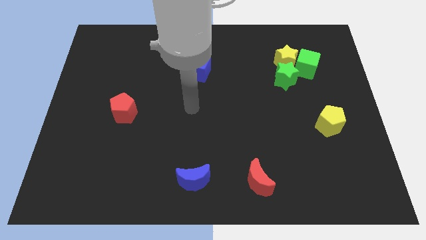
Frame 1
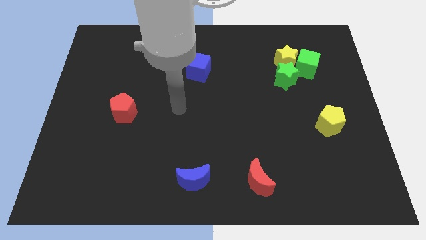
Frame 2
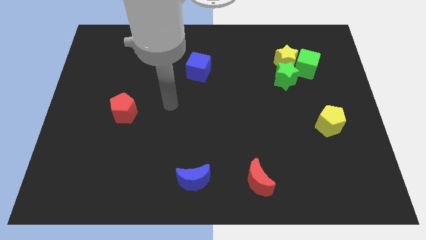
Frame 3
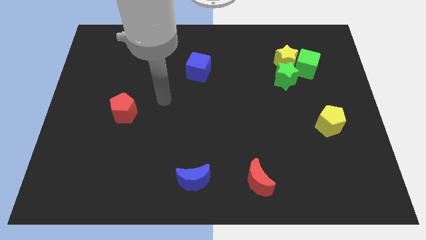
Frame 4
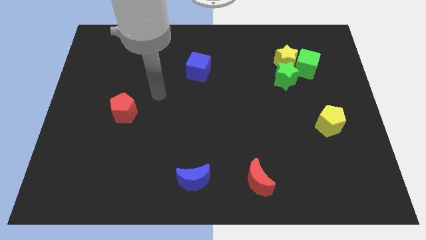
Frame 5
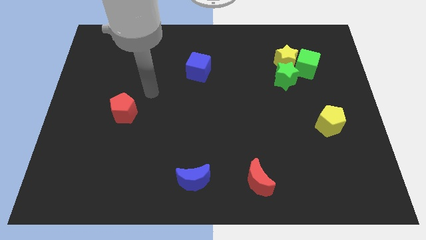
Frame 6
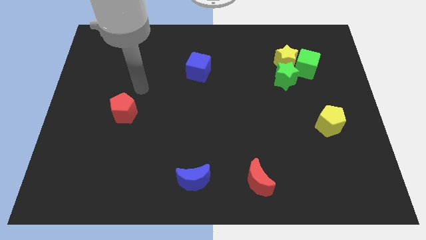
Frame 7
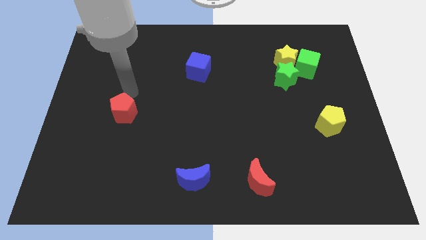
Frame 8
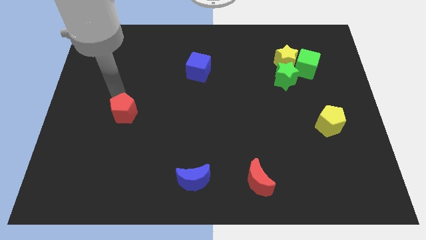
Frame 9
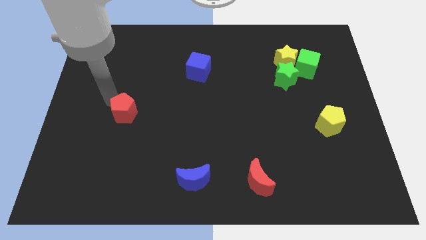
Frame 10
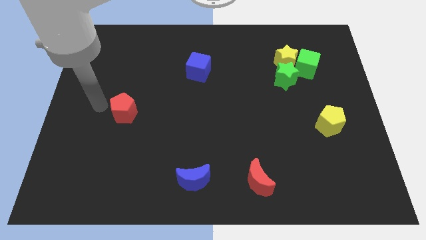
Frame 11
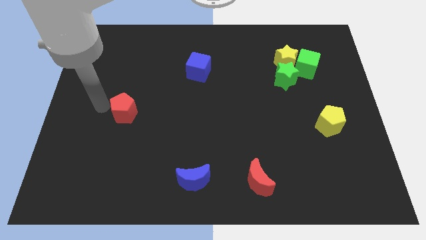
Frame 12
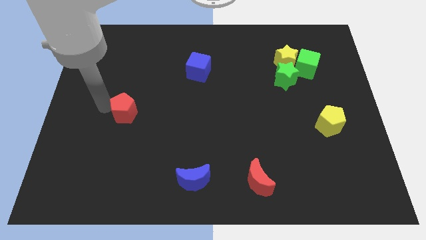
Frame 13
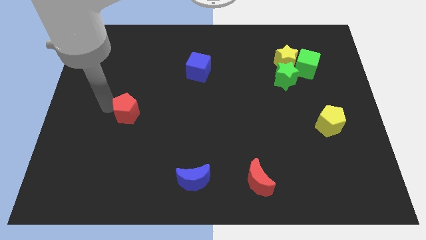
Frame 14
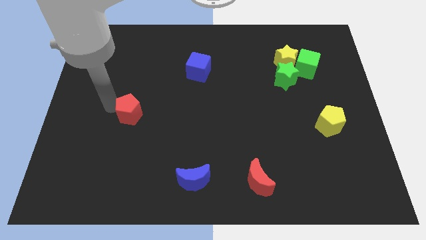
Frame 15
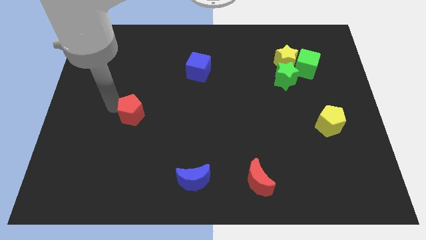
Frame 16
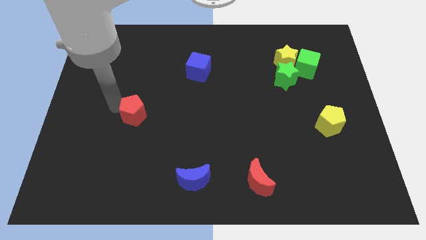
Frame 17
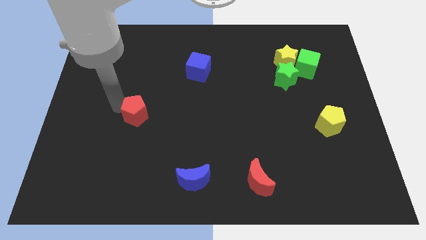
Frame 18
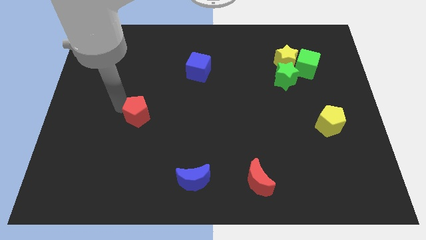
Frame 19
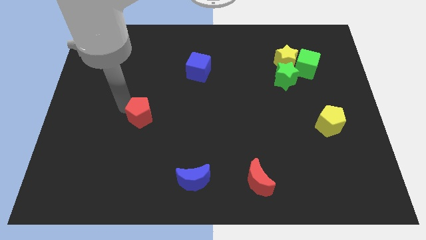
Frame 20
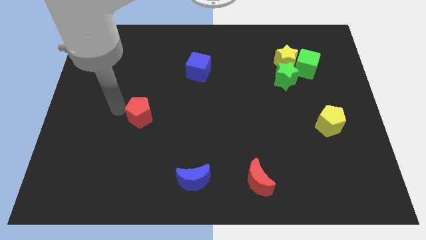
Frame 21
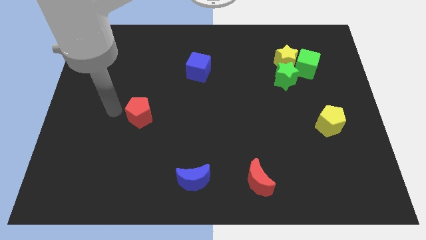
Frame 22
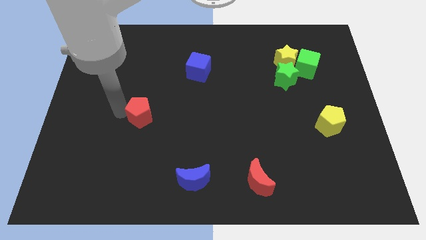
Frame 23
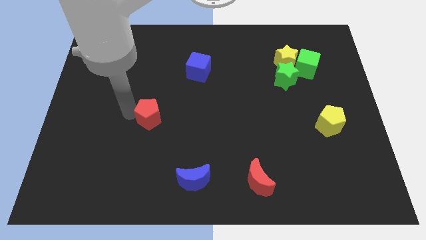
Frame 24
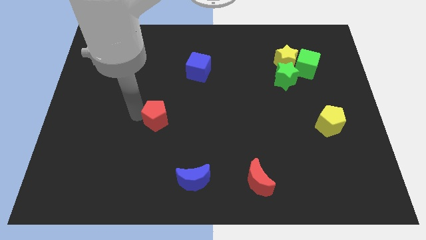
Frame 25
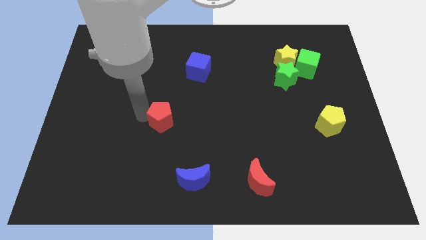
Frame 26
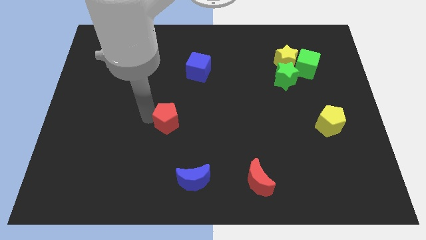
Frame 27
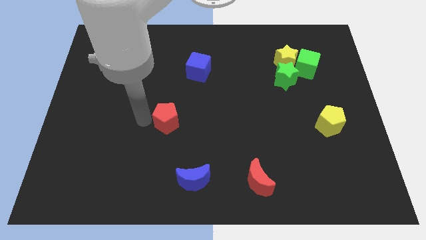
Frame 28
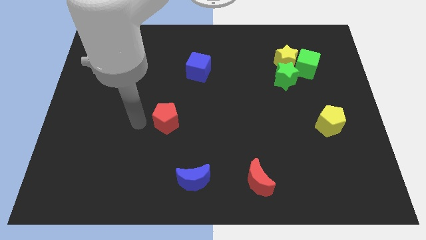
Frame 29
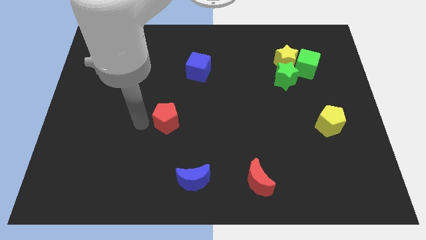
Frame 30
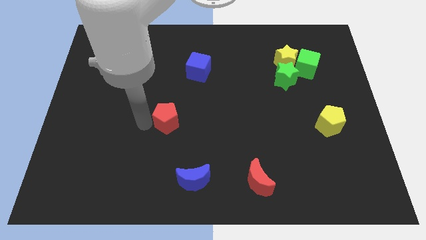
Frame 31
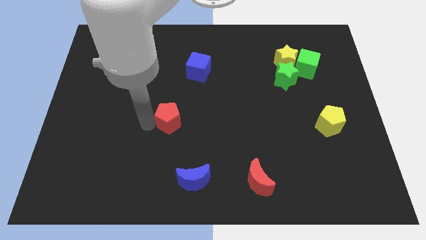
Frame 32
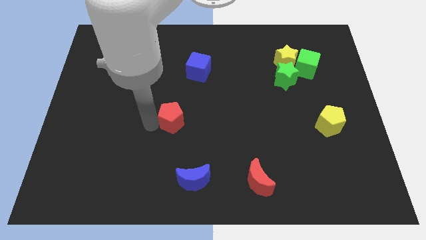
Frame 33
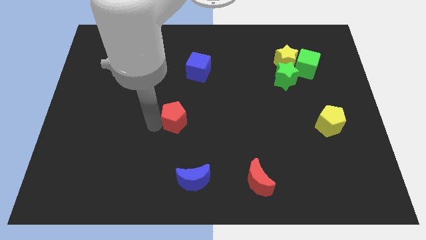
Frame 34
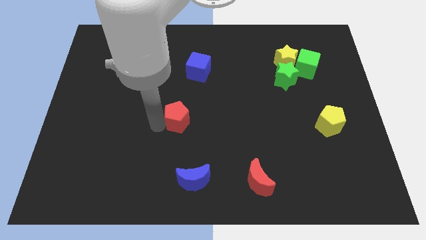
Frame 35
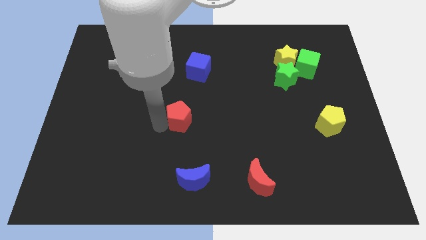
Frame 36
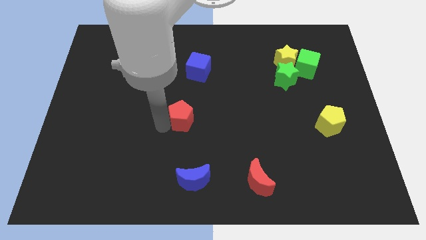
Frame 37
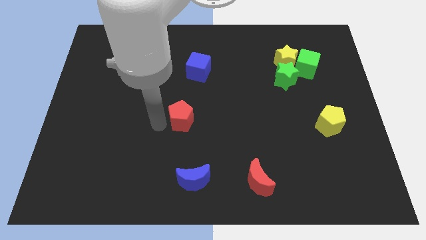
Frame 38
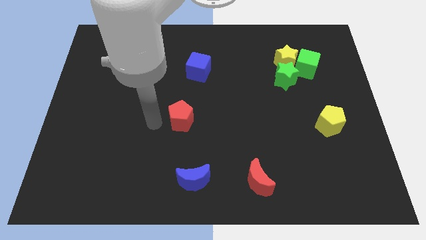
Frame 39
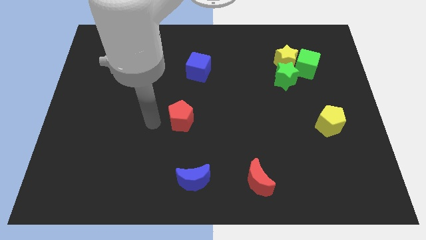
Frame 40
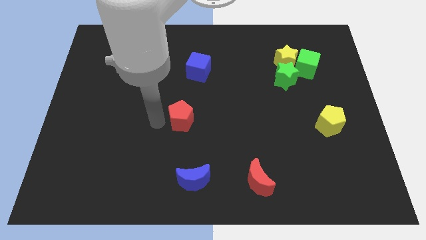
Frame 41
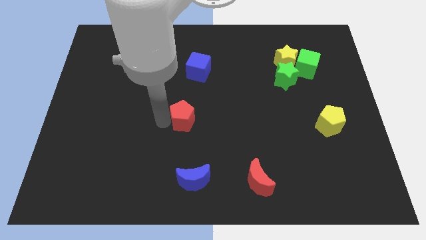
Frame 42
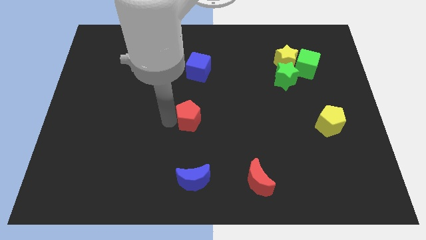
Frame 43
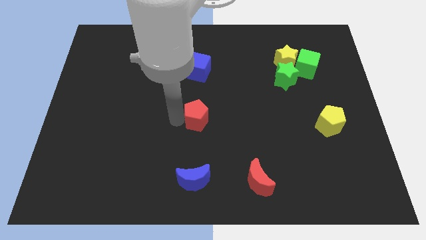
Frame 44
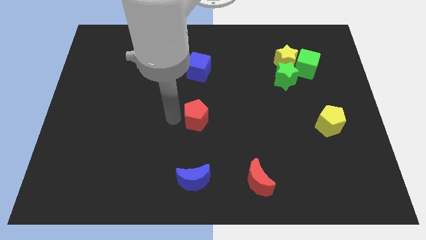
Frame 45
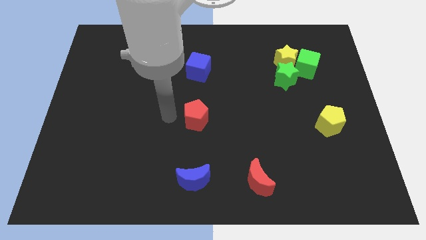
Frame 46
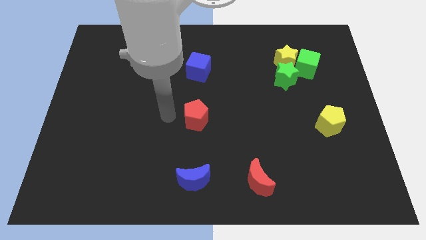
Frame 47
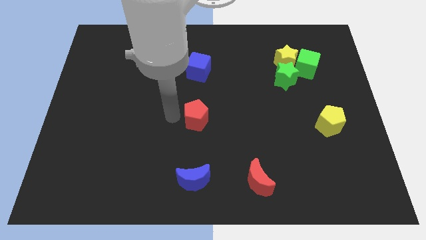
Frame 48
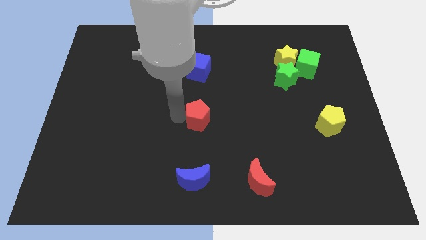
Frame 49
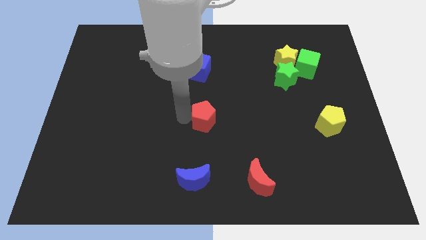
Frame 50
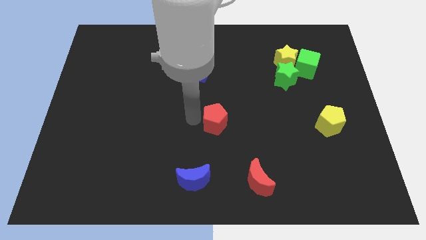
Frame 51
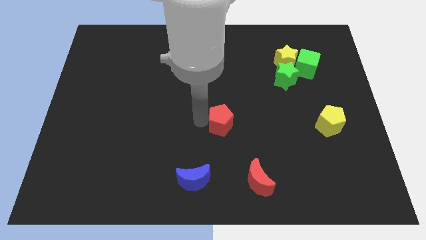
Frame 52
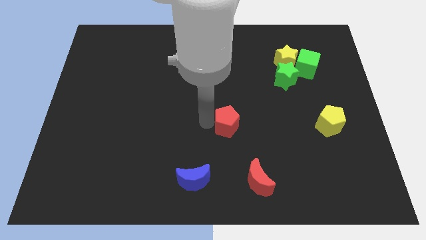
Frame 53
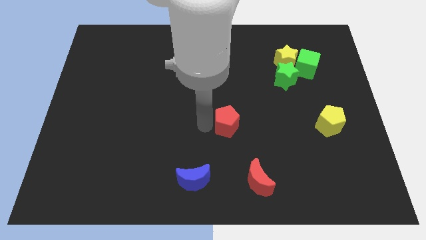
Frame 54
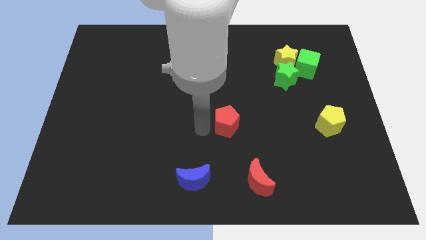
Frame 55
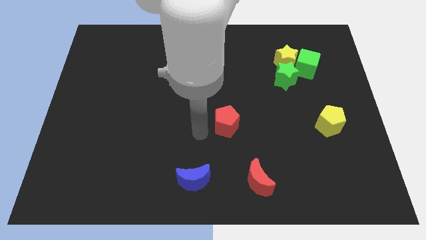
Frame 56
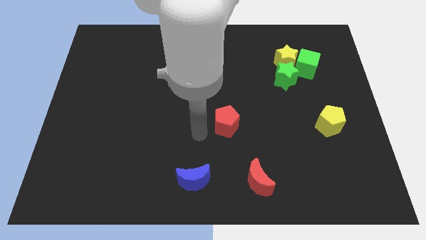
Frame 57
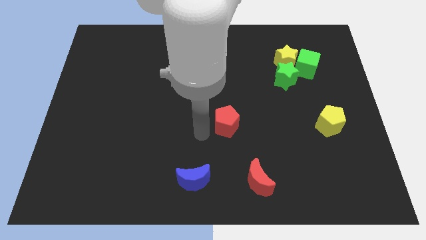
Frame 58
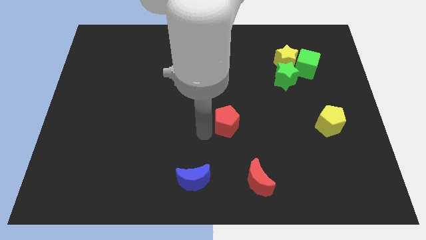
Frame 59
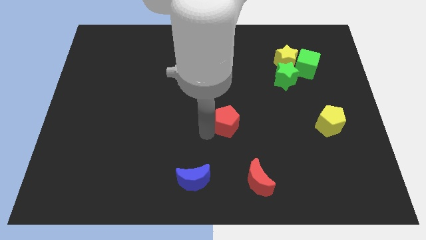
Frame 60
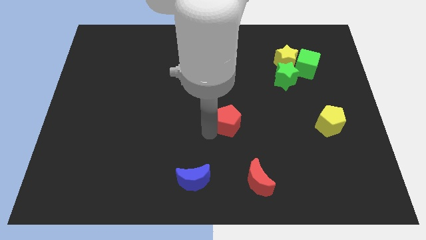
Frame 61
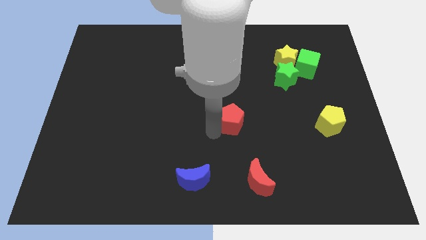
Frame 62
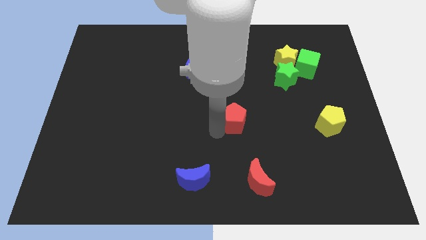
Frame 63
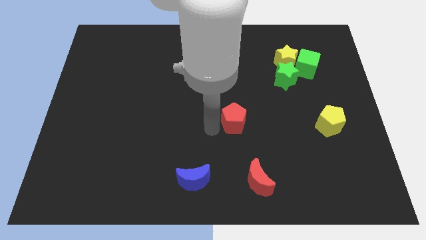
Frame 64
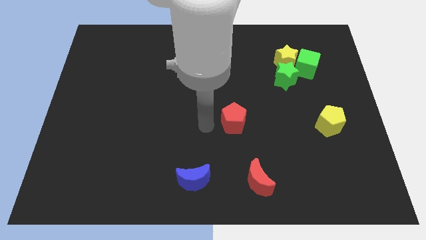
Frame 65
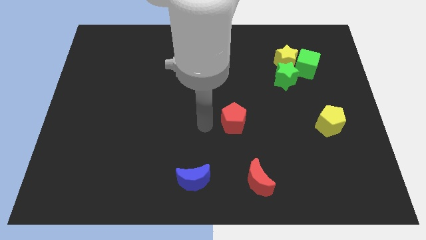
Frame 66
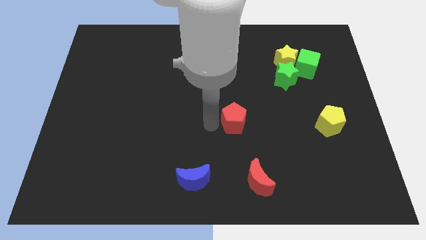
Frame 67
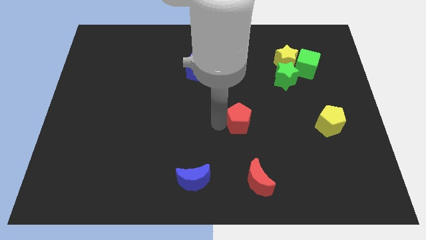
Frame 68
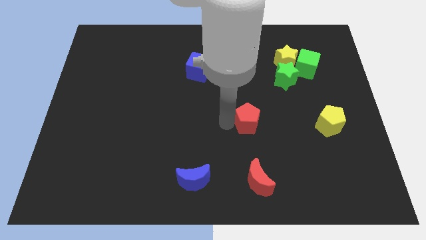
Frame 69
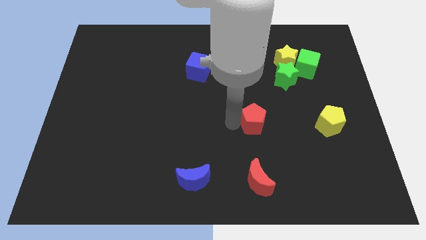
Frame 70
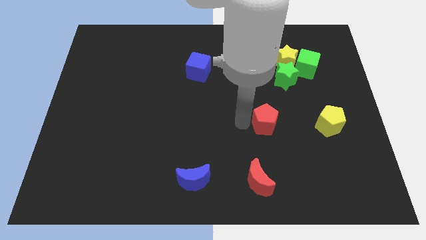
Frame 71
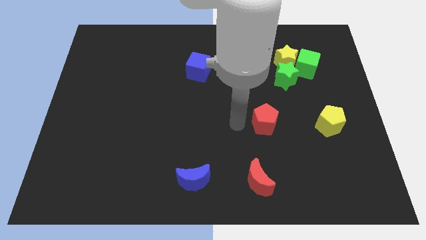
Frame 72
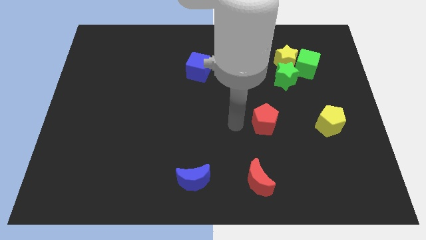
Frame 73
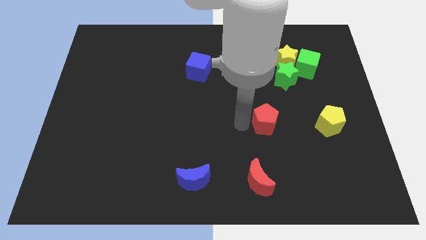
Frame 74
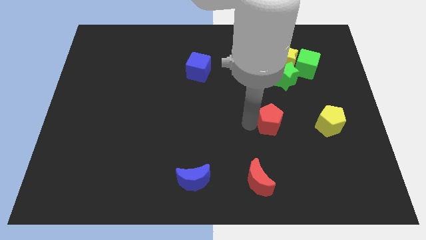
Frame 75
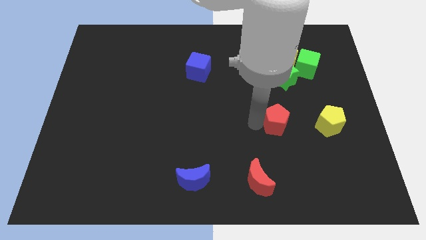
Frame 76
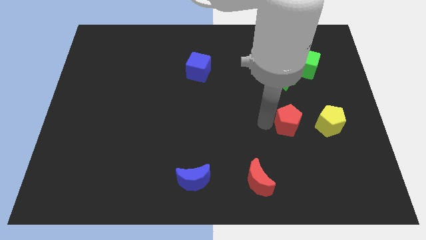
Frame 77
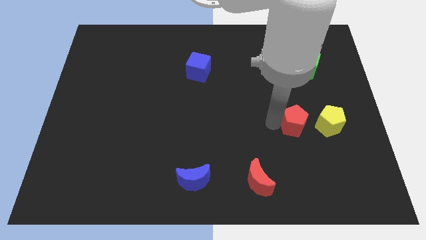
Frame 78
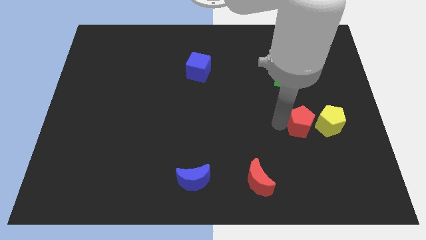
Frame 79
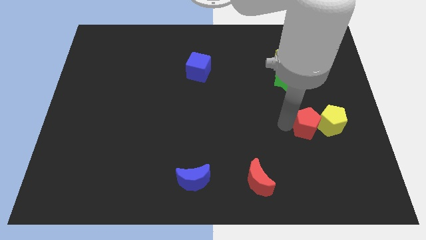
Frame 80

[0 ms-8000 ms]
put the red pentagon close to the yellow pentagon
